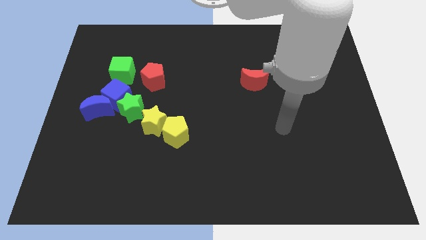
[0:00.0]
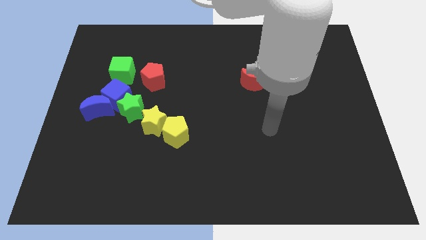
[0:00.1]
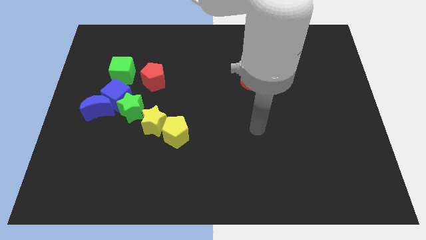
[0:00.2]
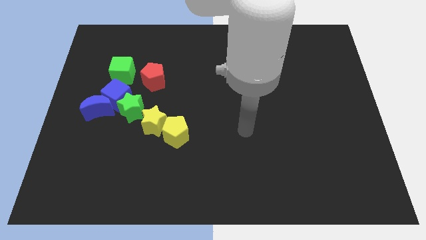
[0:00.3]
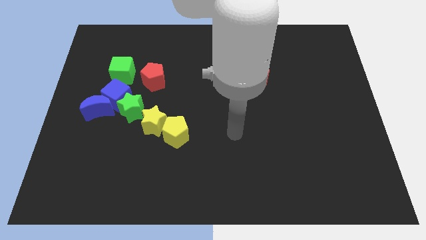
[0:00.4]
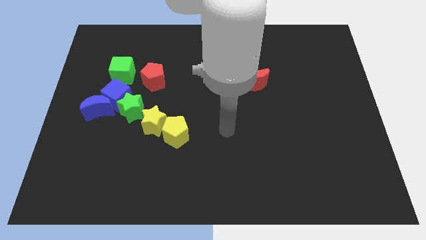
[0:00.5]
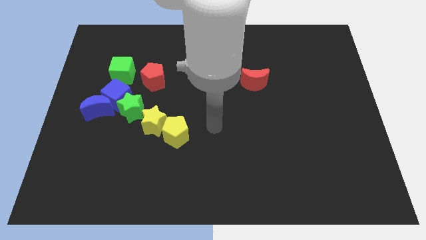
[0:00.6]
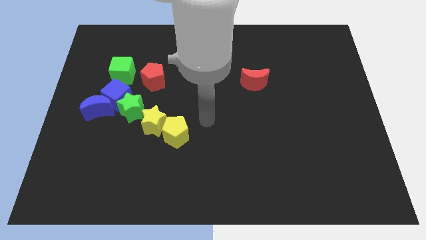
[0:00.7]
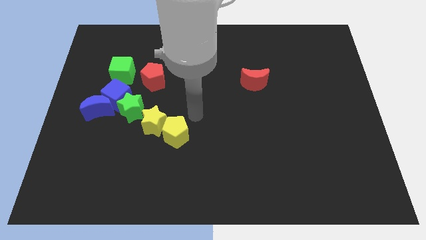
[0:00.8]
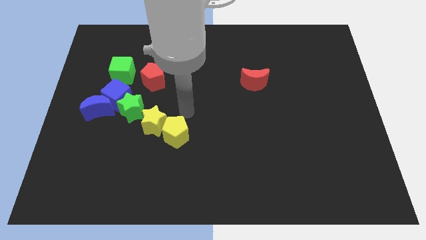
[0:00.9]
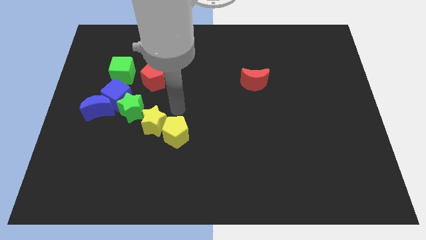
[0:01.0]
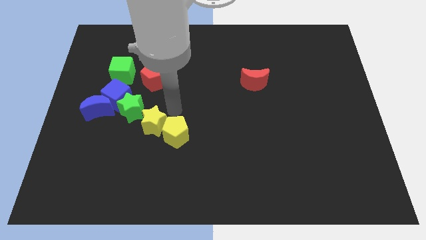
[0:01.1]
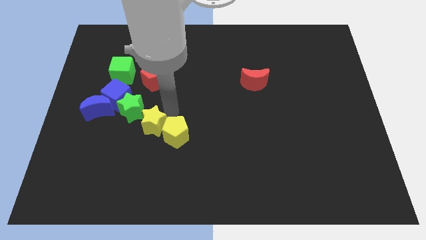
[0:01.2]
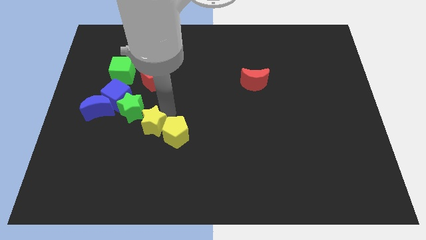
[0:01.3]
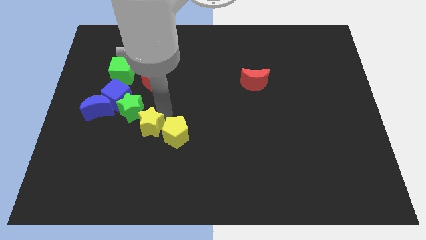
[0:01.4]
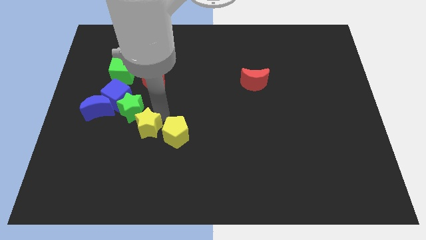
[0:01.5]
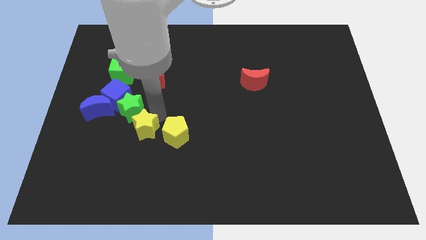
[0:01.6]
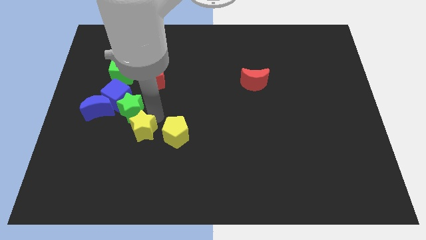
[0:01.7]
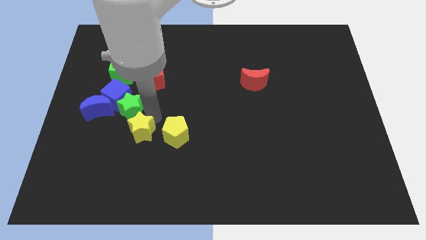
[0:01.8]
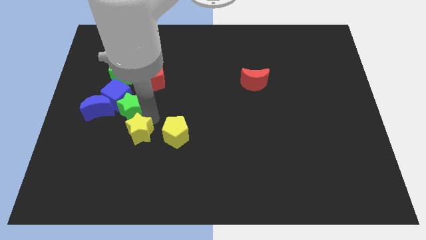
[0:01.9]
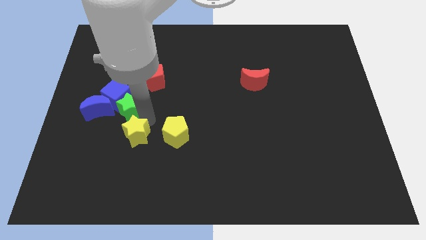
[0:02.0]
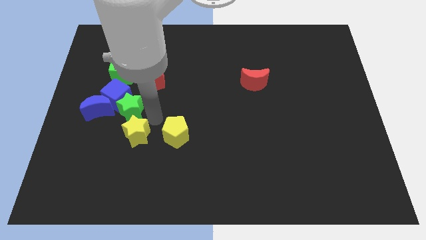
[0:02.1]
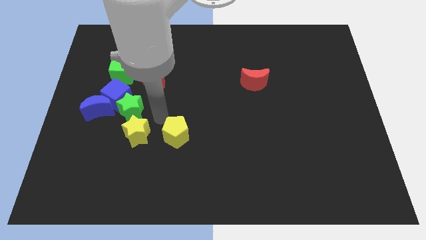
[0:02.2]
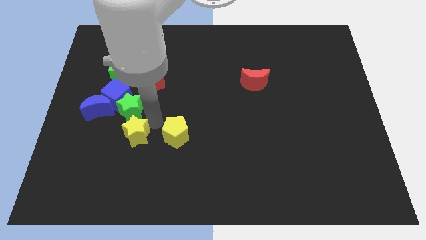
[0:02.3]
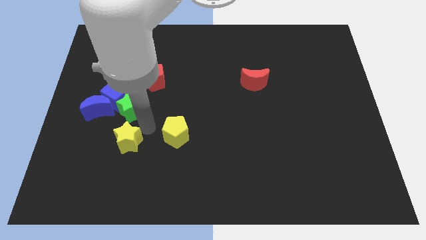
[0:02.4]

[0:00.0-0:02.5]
move the yellow star downwards and then to the left somewhat

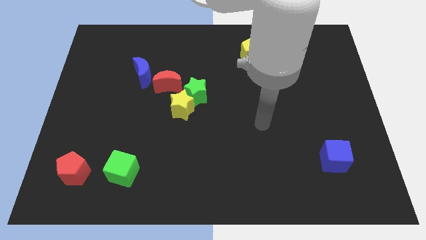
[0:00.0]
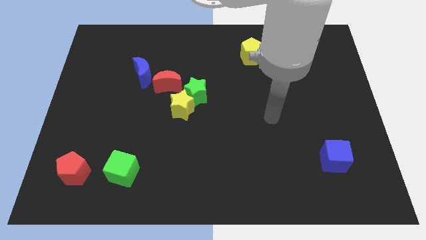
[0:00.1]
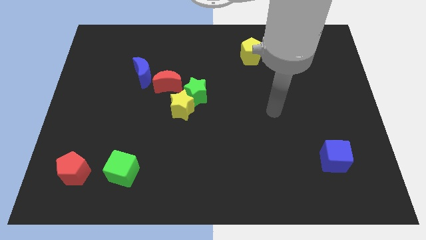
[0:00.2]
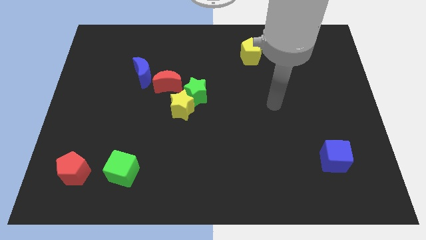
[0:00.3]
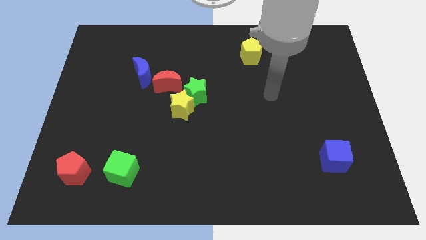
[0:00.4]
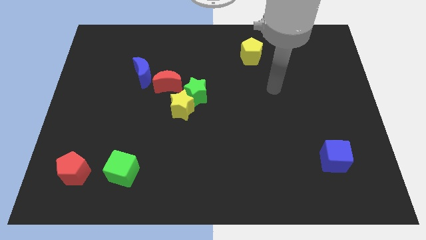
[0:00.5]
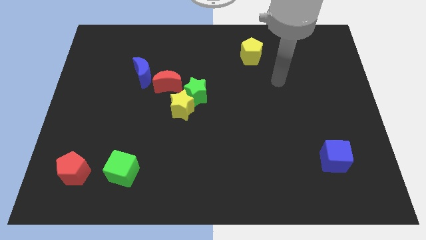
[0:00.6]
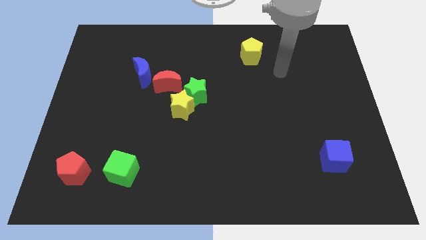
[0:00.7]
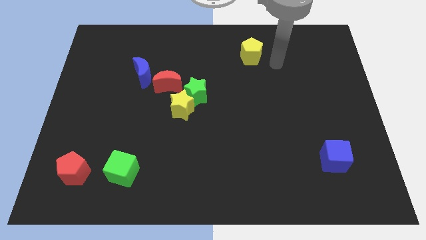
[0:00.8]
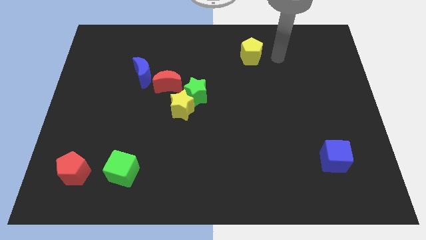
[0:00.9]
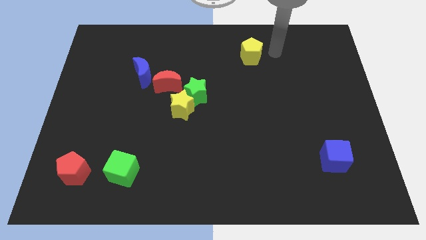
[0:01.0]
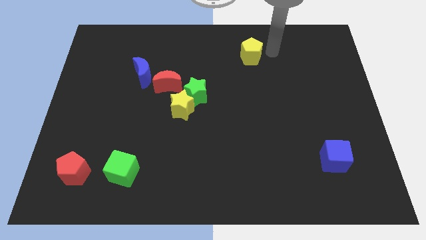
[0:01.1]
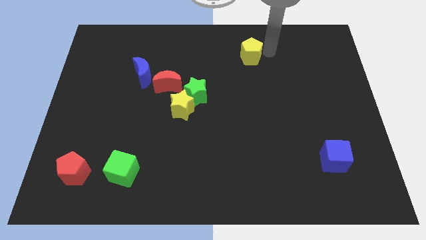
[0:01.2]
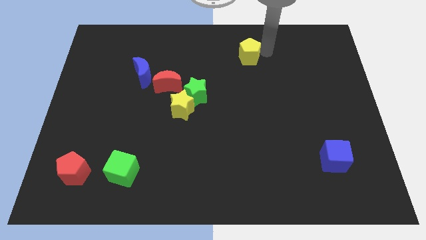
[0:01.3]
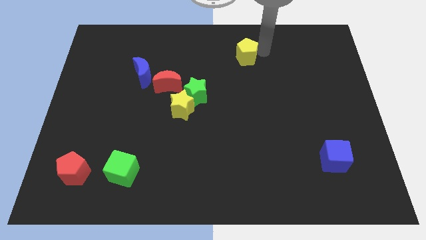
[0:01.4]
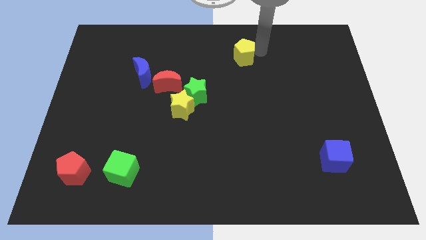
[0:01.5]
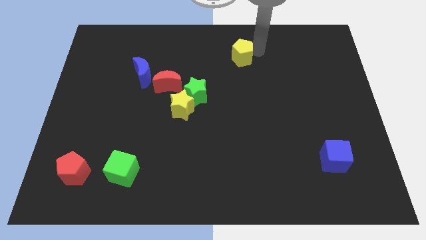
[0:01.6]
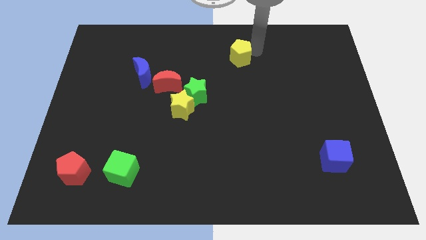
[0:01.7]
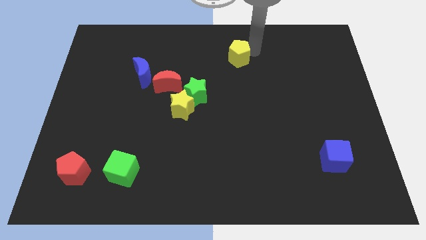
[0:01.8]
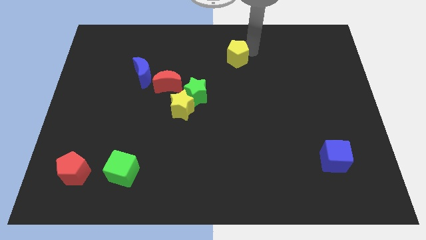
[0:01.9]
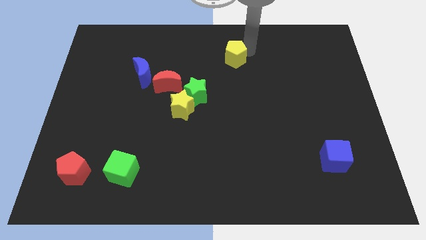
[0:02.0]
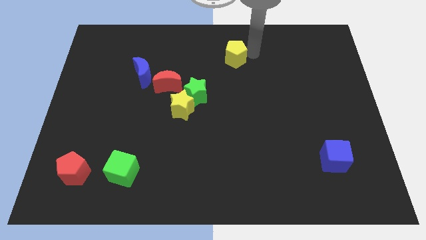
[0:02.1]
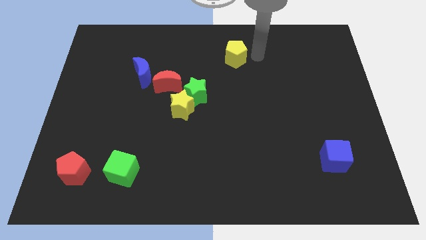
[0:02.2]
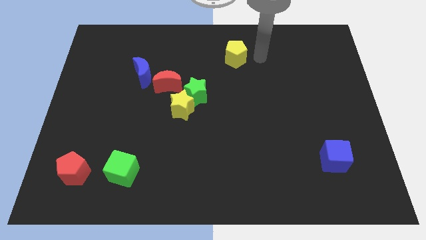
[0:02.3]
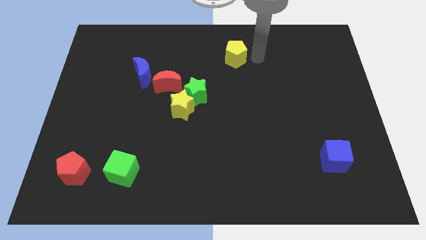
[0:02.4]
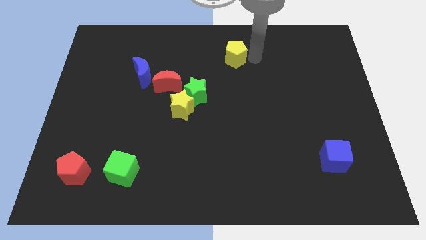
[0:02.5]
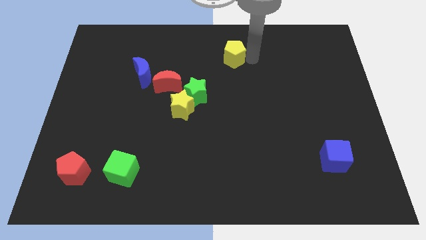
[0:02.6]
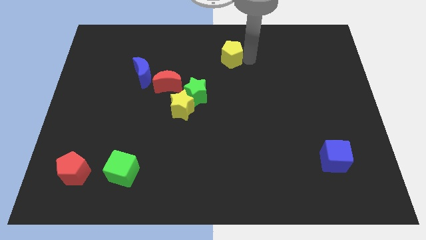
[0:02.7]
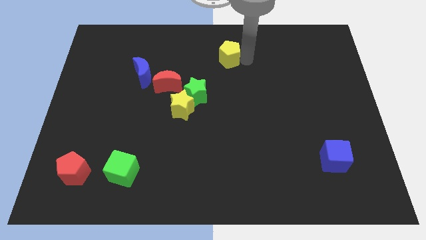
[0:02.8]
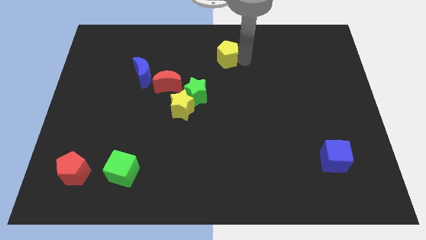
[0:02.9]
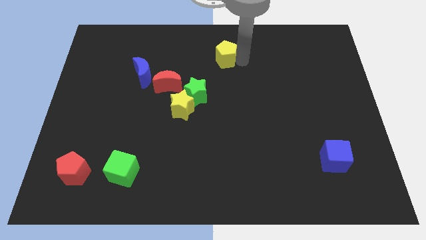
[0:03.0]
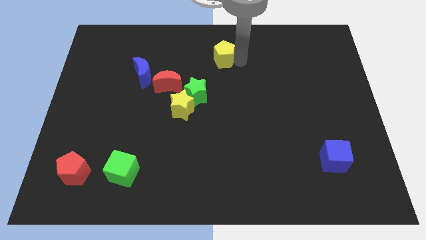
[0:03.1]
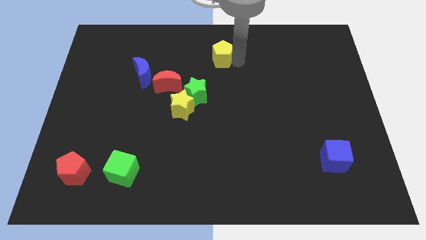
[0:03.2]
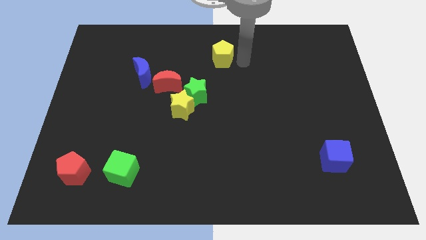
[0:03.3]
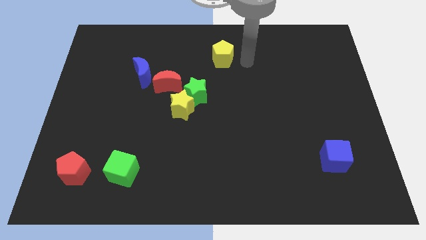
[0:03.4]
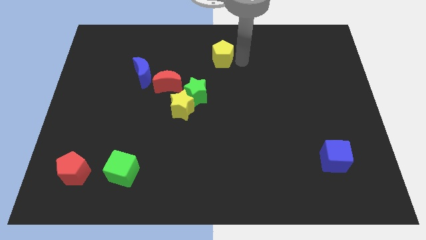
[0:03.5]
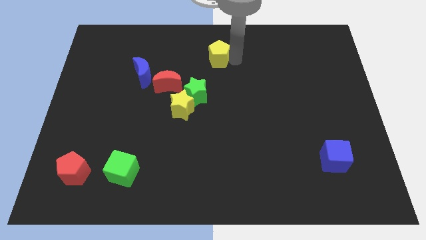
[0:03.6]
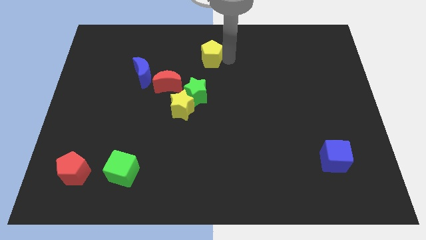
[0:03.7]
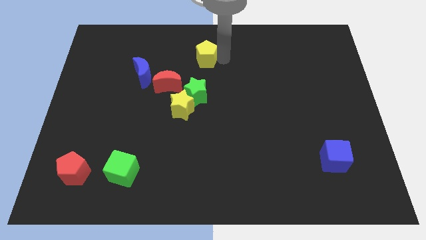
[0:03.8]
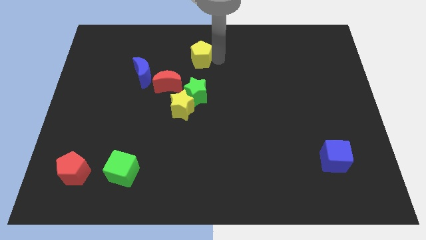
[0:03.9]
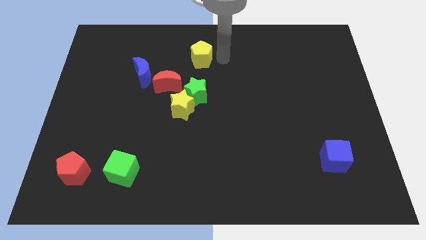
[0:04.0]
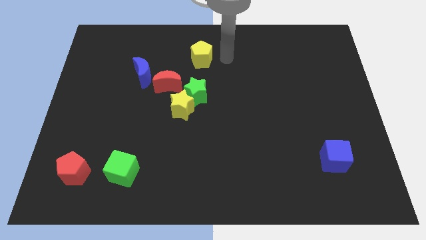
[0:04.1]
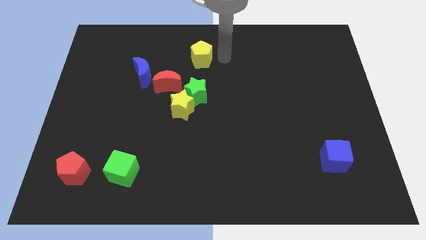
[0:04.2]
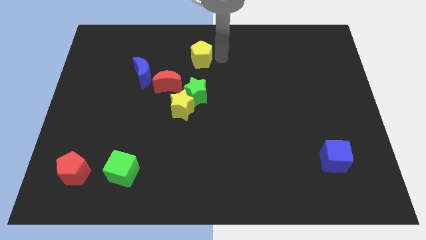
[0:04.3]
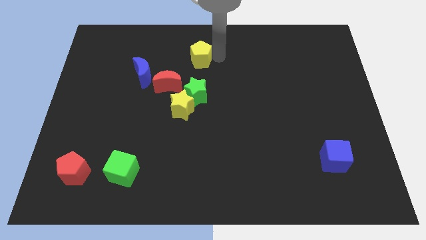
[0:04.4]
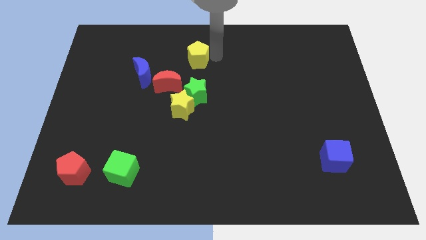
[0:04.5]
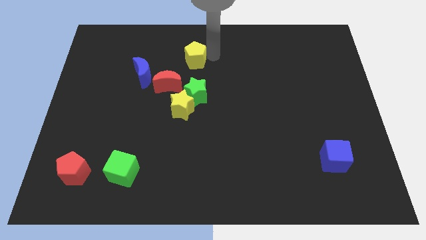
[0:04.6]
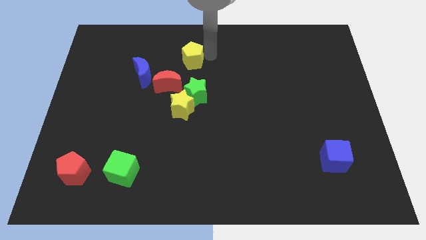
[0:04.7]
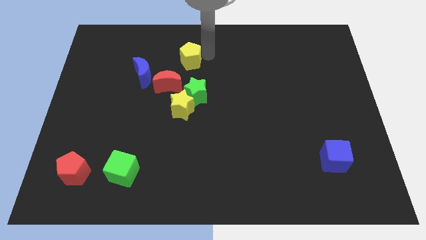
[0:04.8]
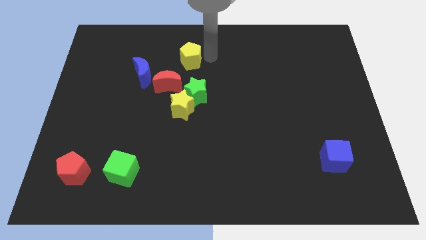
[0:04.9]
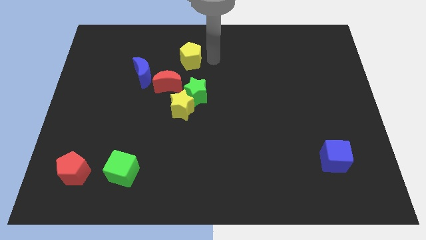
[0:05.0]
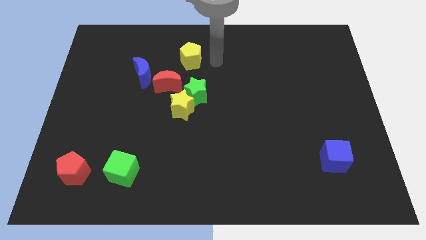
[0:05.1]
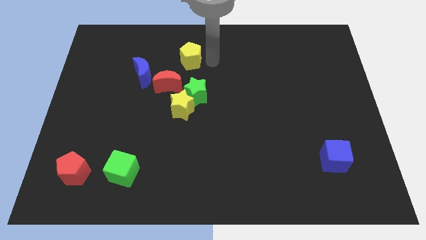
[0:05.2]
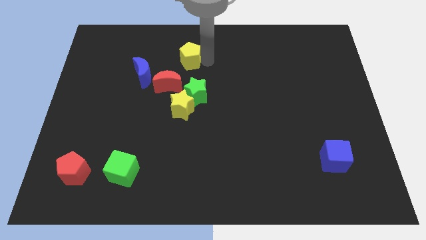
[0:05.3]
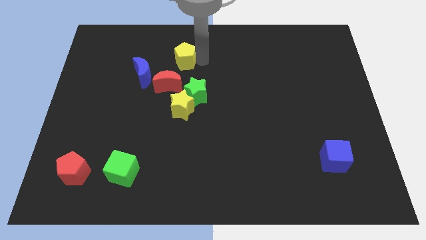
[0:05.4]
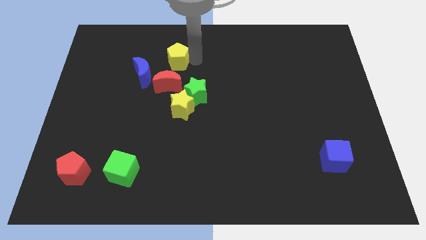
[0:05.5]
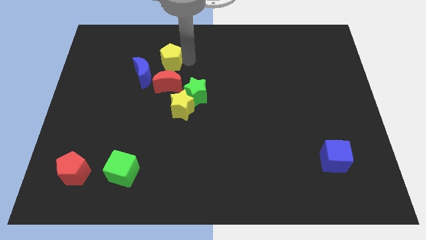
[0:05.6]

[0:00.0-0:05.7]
move the yellow pentagon left

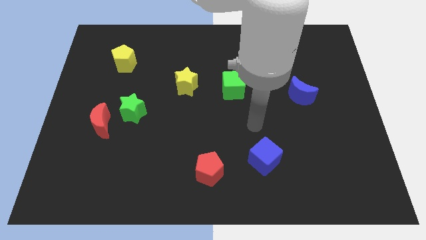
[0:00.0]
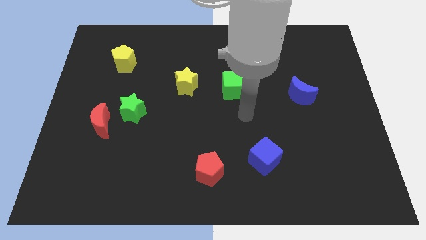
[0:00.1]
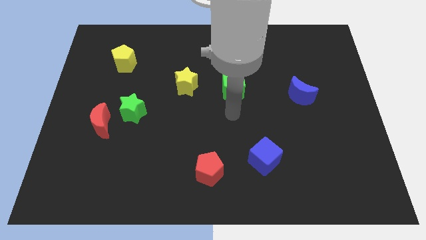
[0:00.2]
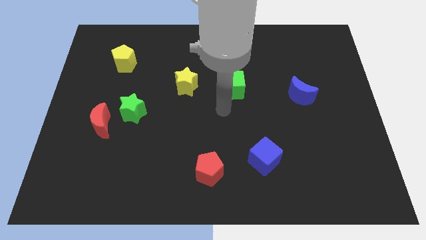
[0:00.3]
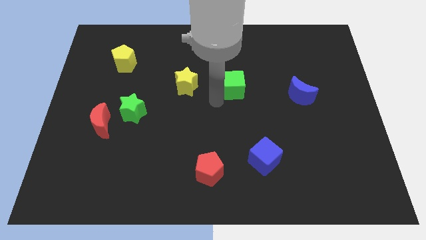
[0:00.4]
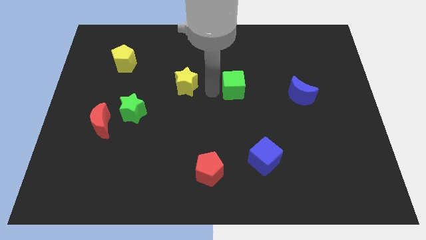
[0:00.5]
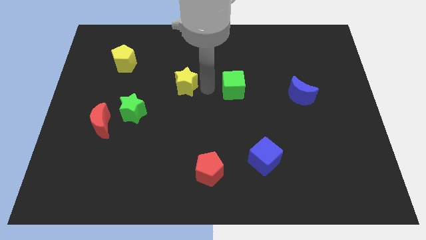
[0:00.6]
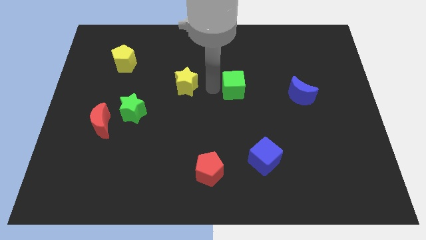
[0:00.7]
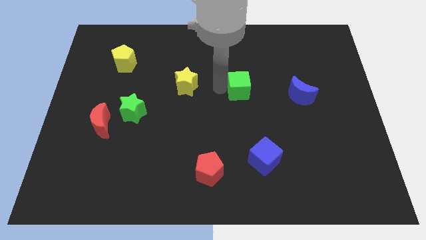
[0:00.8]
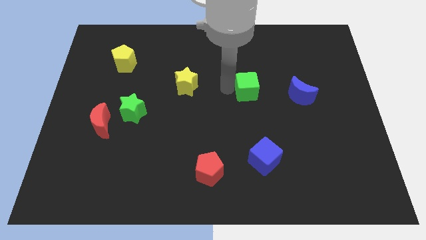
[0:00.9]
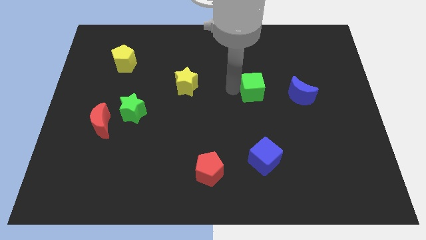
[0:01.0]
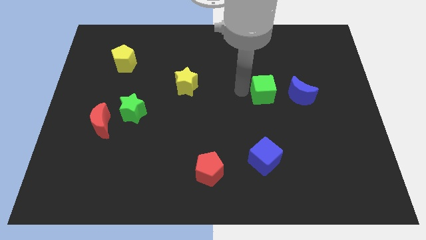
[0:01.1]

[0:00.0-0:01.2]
slightly move the green cube to the right
